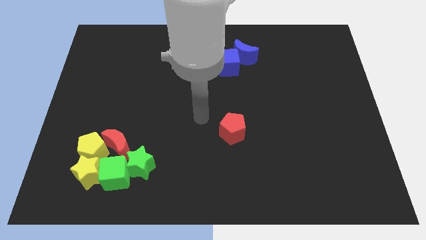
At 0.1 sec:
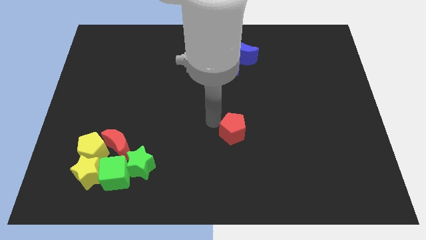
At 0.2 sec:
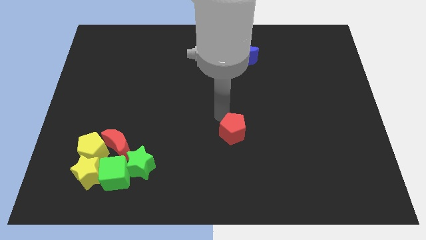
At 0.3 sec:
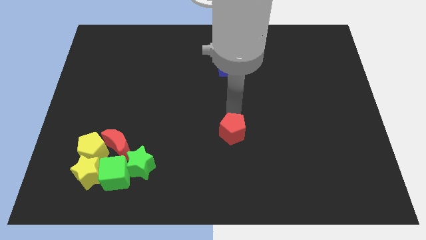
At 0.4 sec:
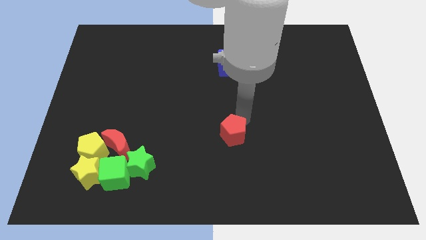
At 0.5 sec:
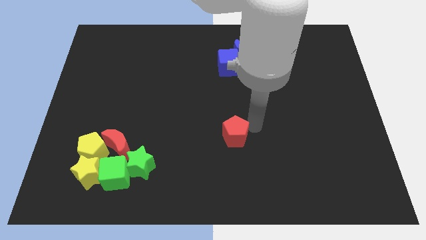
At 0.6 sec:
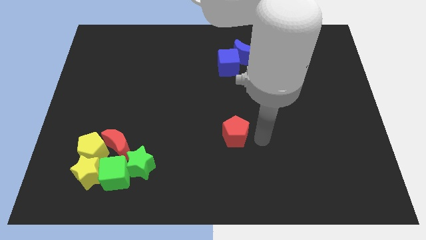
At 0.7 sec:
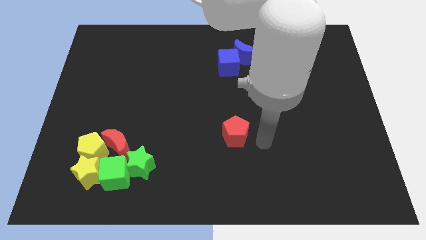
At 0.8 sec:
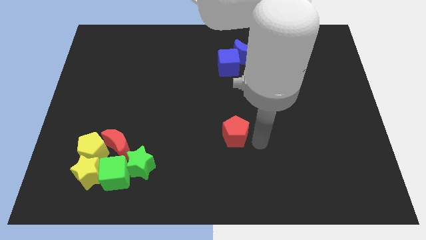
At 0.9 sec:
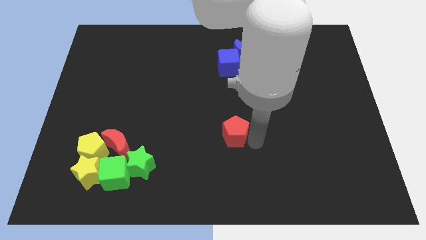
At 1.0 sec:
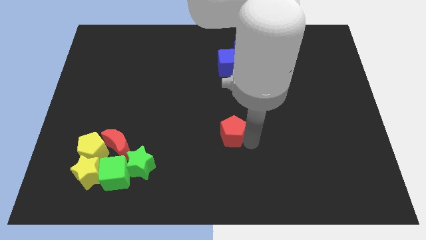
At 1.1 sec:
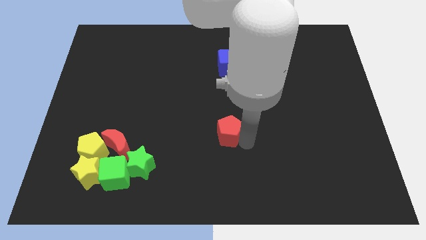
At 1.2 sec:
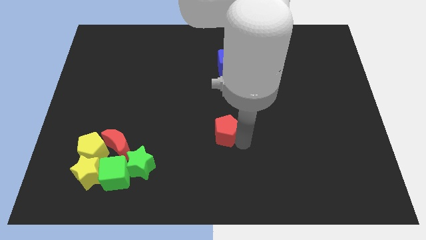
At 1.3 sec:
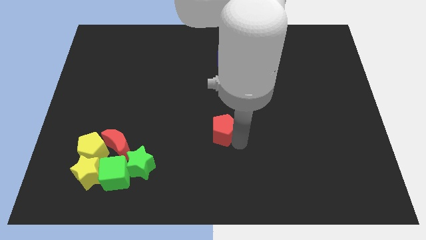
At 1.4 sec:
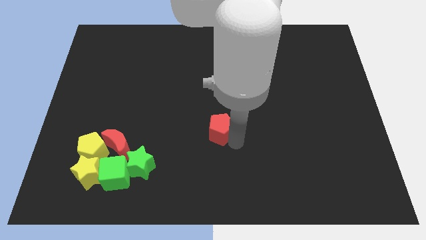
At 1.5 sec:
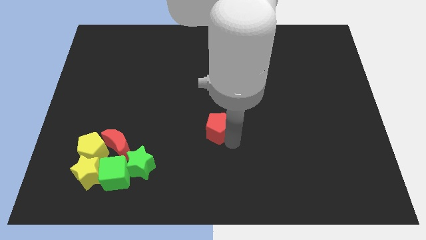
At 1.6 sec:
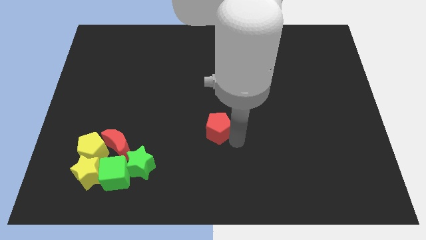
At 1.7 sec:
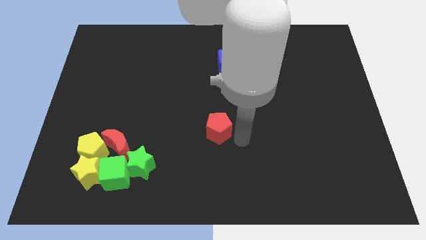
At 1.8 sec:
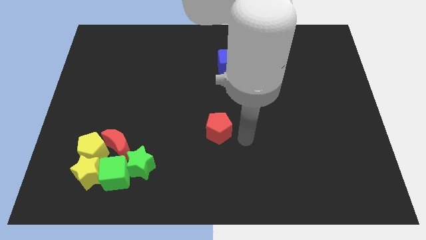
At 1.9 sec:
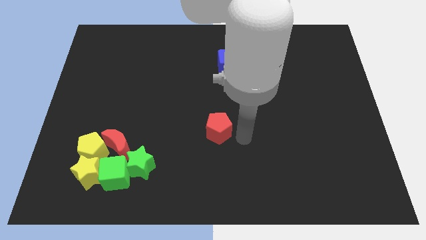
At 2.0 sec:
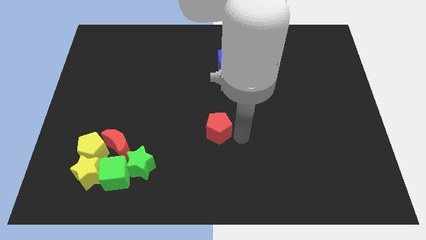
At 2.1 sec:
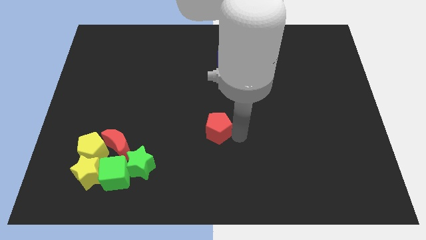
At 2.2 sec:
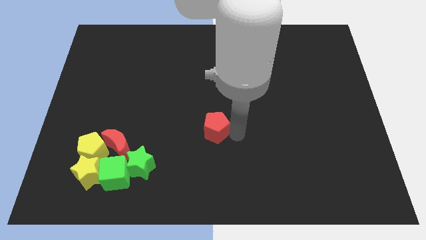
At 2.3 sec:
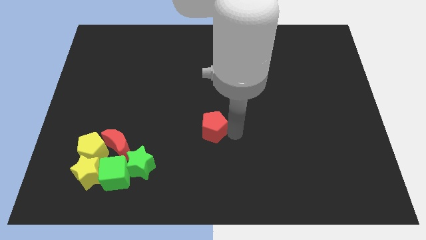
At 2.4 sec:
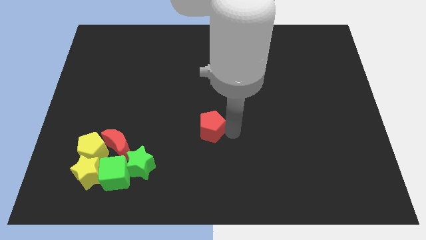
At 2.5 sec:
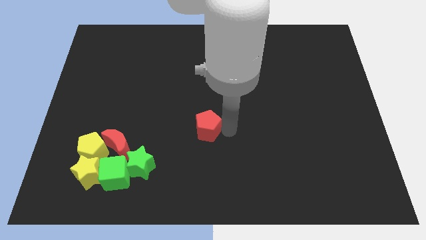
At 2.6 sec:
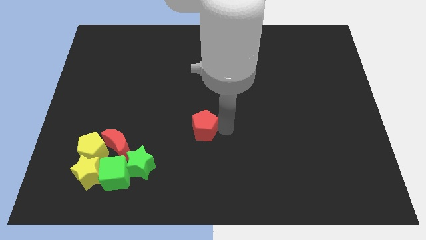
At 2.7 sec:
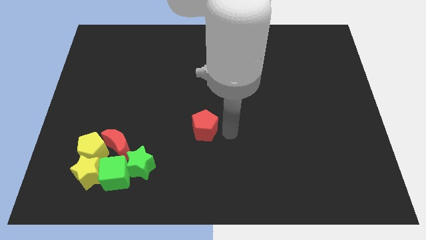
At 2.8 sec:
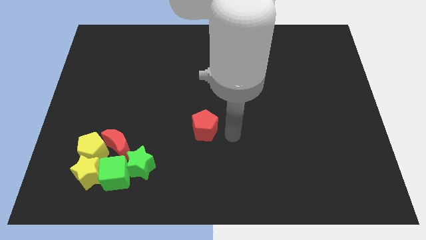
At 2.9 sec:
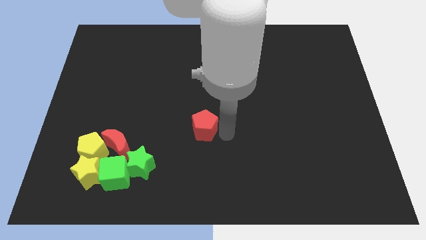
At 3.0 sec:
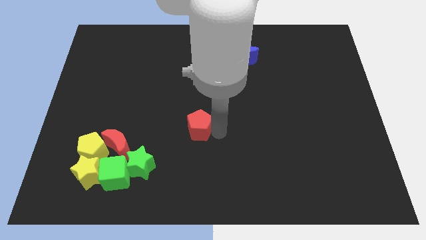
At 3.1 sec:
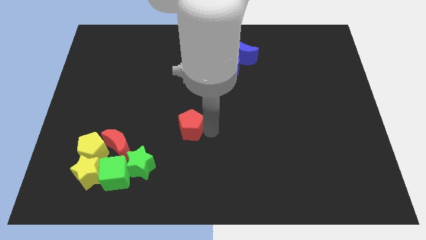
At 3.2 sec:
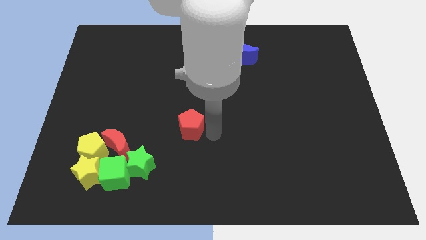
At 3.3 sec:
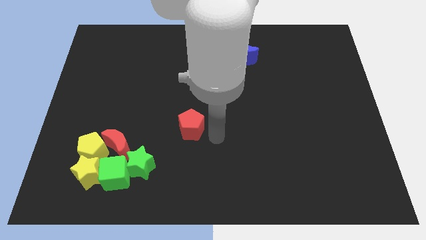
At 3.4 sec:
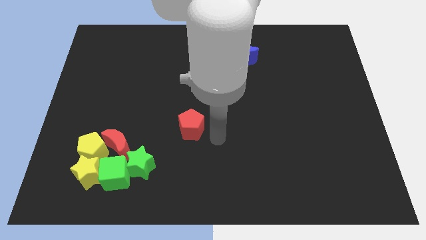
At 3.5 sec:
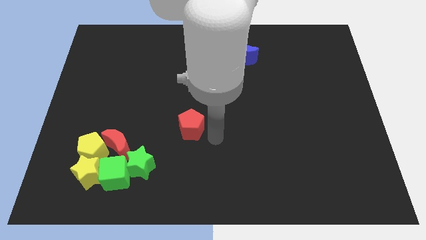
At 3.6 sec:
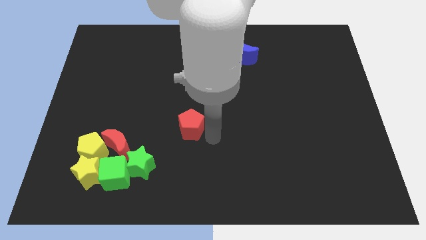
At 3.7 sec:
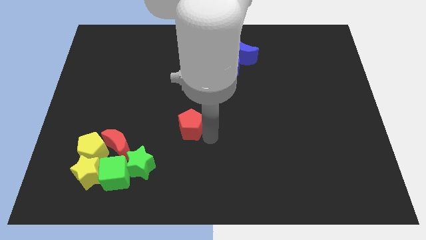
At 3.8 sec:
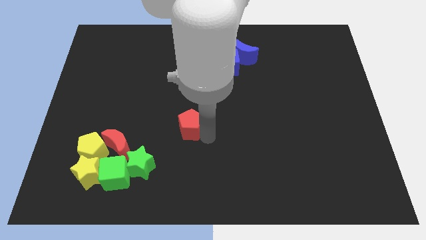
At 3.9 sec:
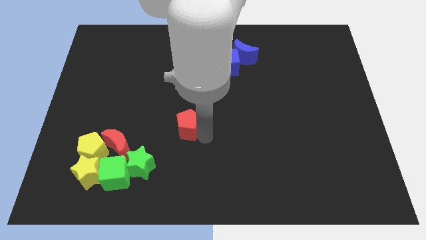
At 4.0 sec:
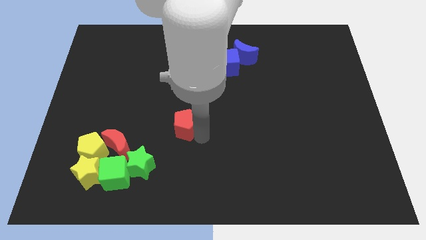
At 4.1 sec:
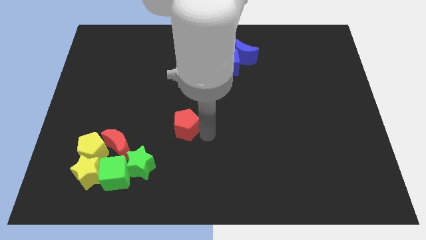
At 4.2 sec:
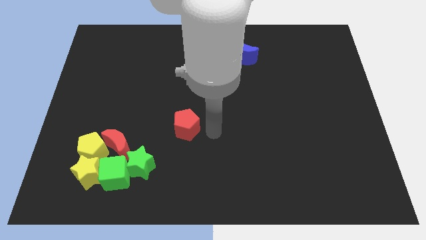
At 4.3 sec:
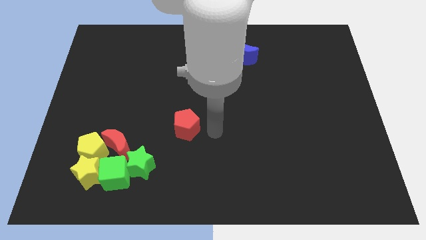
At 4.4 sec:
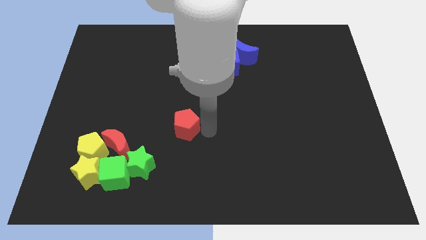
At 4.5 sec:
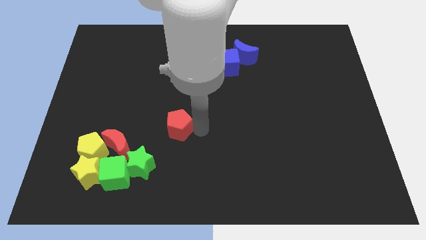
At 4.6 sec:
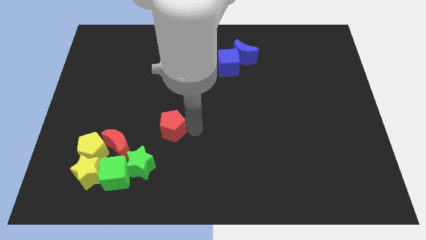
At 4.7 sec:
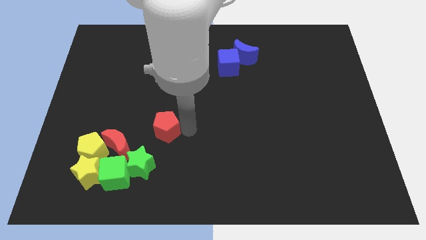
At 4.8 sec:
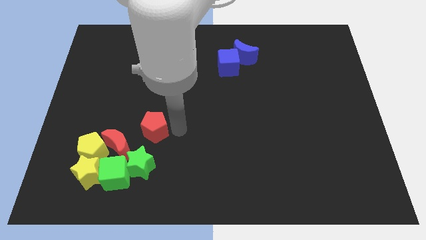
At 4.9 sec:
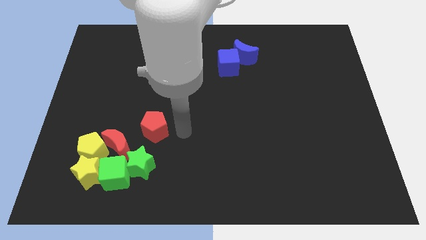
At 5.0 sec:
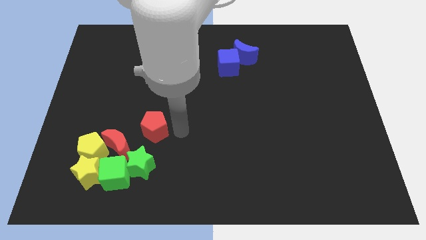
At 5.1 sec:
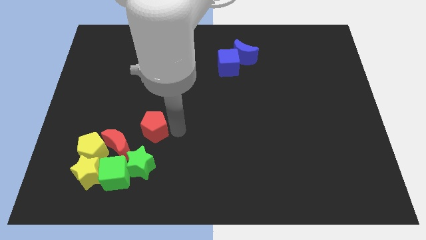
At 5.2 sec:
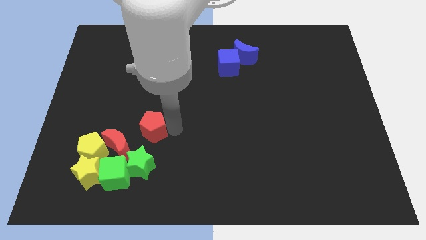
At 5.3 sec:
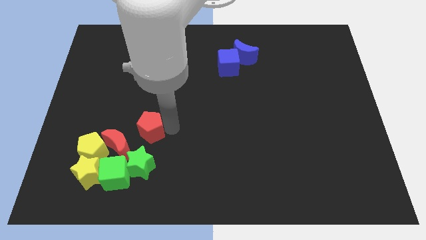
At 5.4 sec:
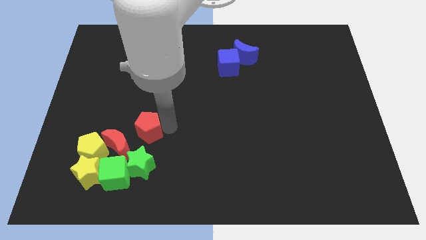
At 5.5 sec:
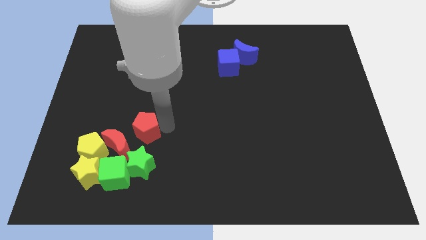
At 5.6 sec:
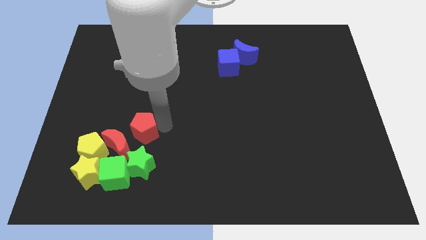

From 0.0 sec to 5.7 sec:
slide the red pentagon left

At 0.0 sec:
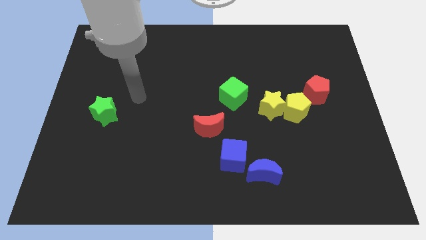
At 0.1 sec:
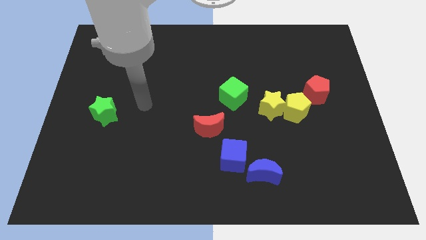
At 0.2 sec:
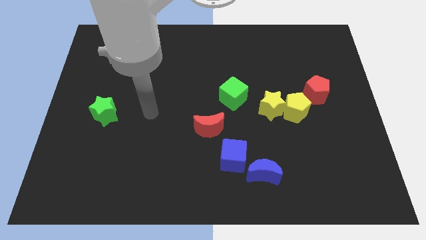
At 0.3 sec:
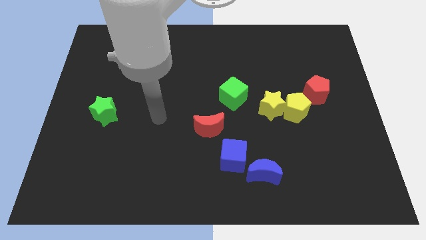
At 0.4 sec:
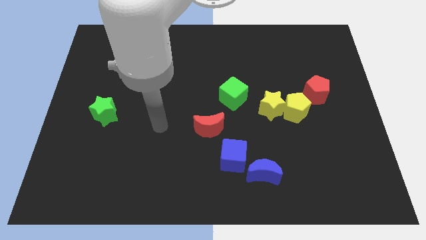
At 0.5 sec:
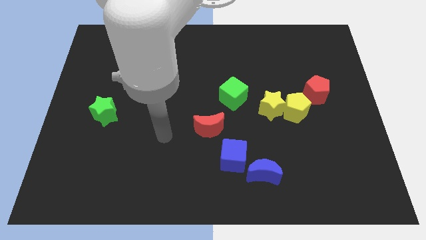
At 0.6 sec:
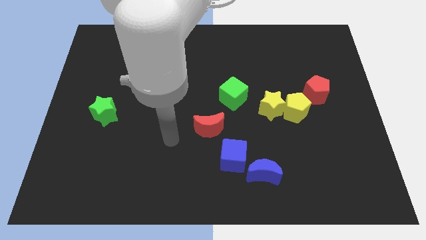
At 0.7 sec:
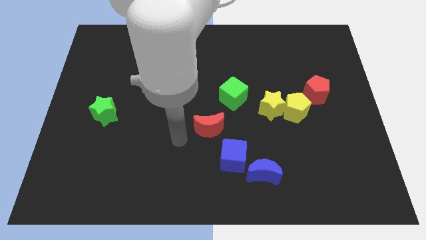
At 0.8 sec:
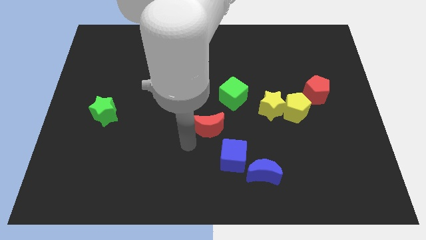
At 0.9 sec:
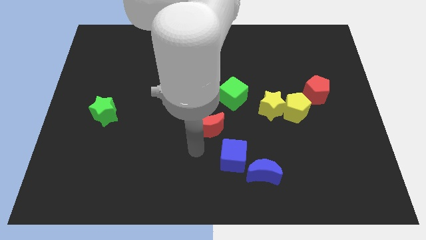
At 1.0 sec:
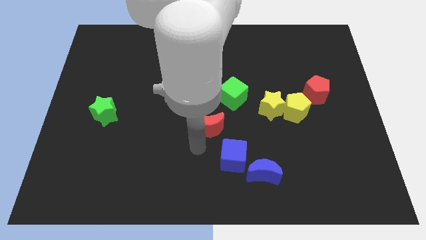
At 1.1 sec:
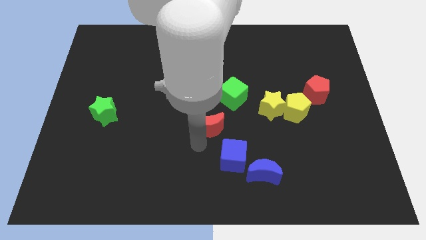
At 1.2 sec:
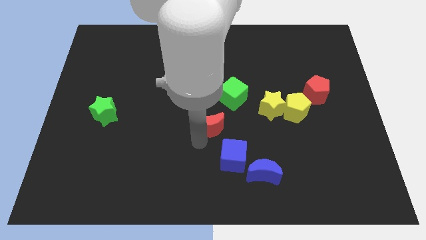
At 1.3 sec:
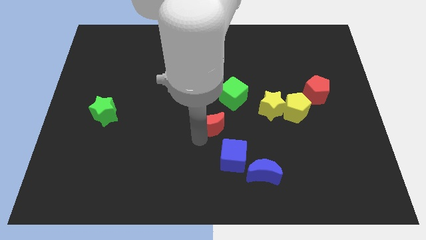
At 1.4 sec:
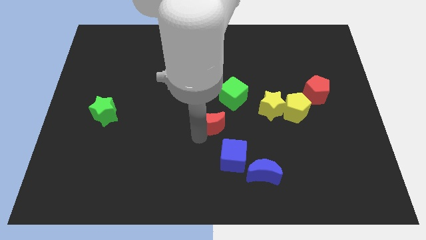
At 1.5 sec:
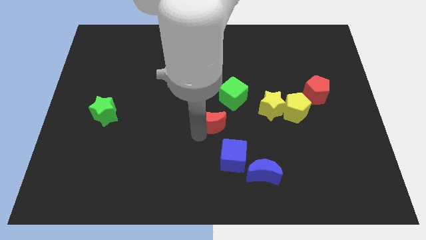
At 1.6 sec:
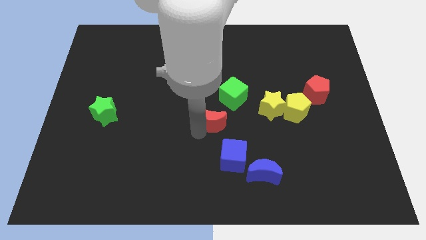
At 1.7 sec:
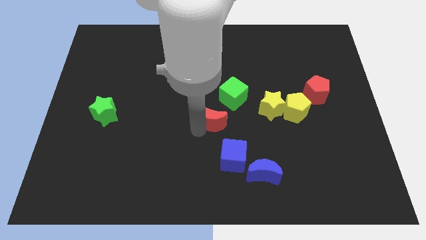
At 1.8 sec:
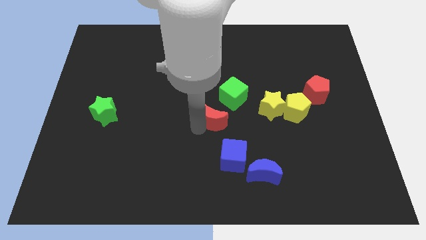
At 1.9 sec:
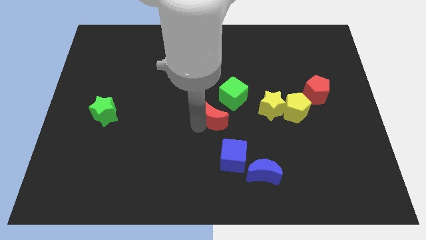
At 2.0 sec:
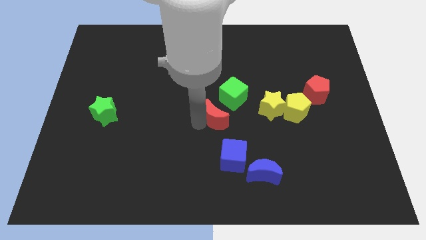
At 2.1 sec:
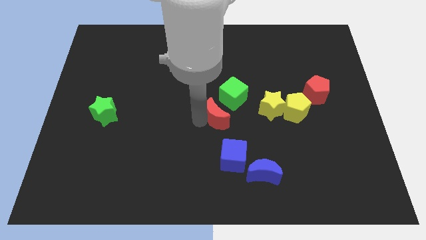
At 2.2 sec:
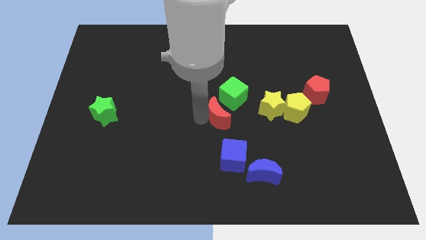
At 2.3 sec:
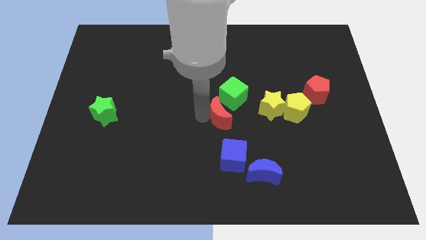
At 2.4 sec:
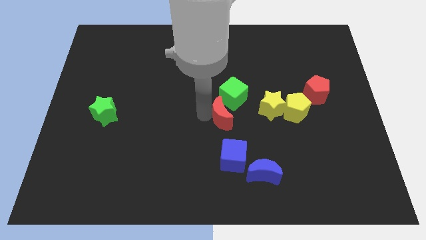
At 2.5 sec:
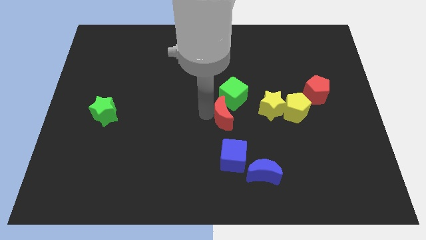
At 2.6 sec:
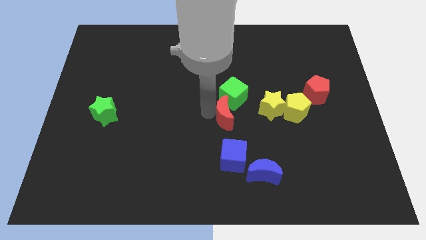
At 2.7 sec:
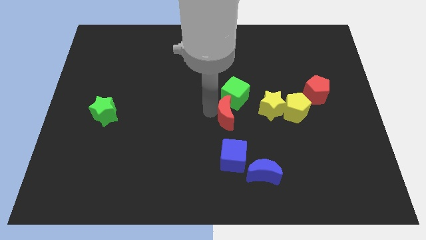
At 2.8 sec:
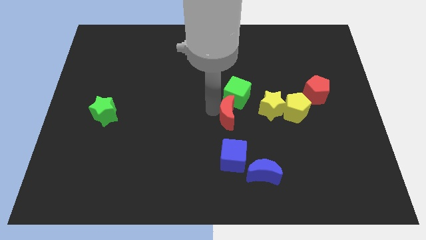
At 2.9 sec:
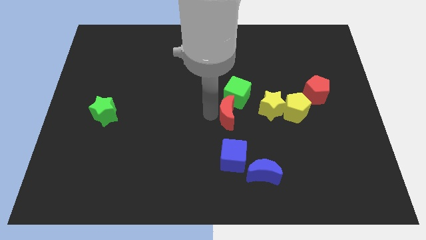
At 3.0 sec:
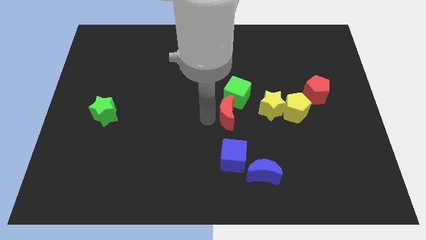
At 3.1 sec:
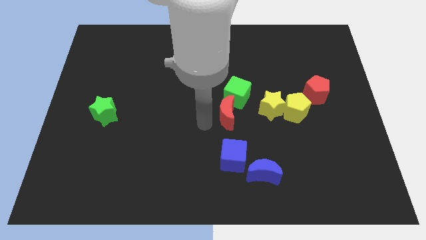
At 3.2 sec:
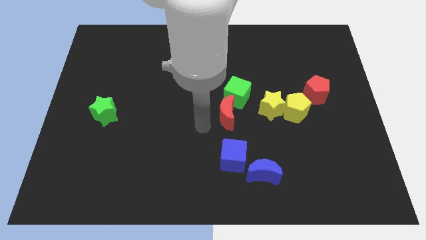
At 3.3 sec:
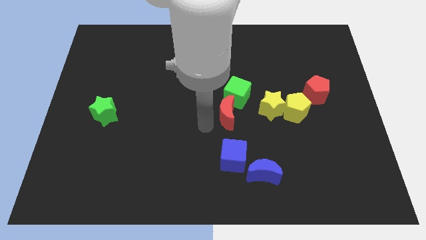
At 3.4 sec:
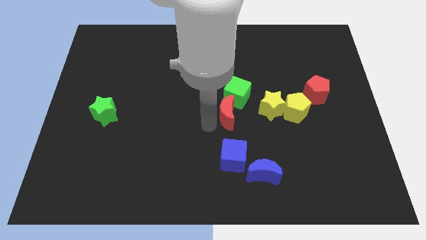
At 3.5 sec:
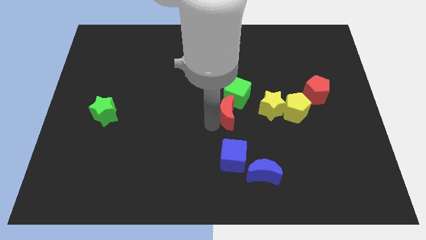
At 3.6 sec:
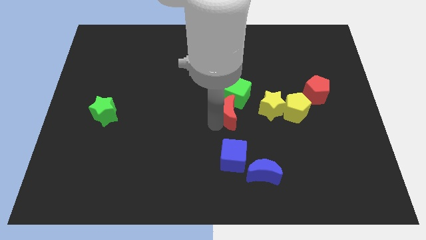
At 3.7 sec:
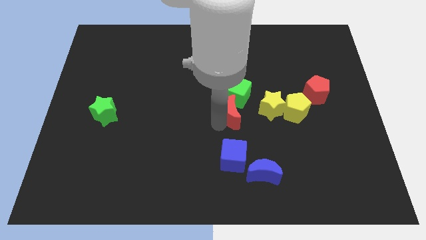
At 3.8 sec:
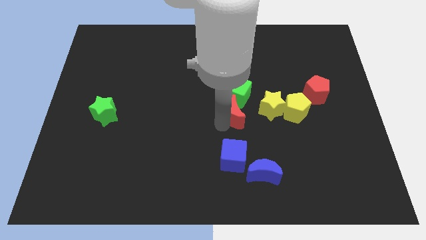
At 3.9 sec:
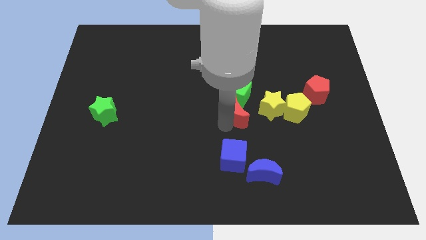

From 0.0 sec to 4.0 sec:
push the red moon upwards and to the right a little bit
